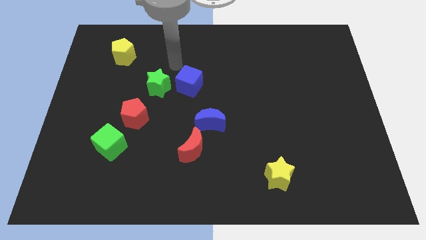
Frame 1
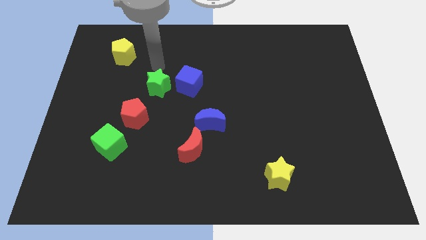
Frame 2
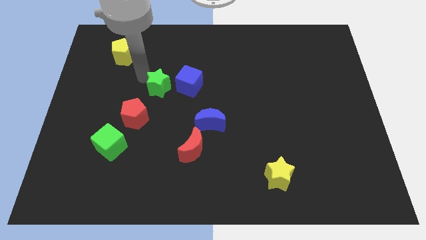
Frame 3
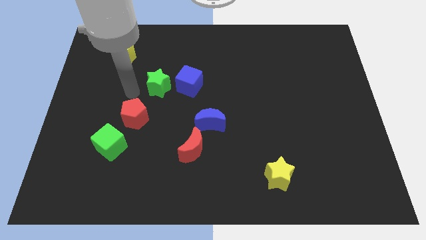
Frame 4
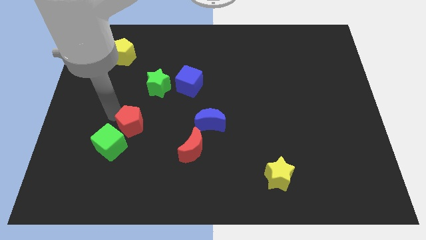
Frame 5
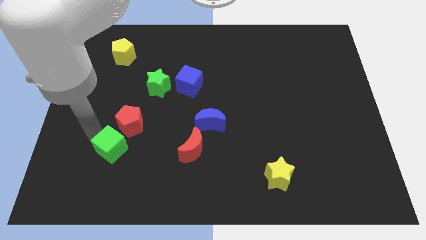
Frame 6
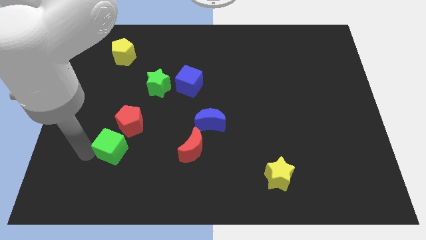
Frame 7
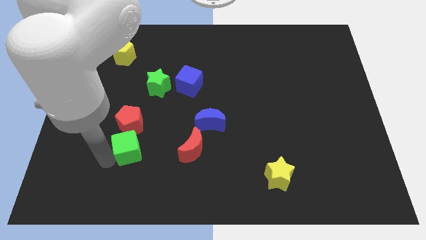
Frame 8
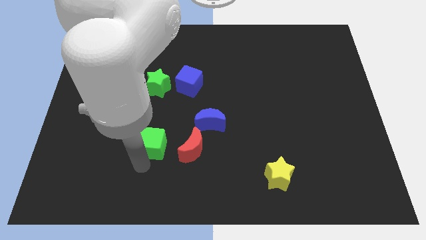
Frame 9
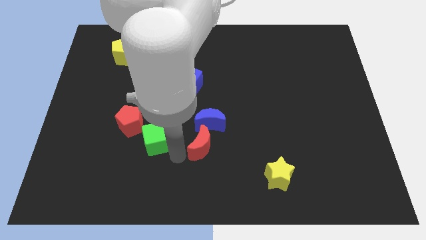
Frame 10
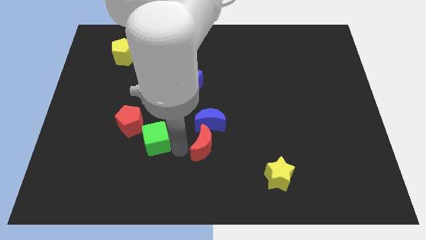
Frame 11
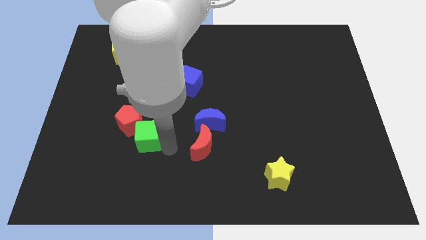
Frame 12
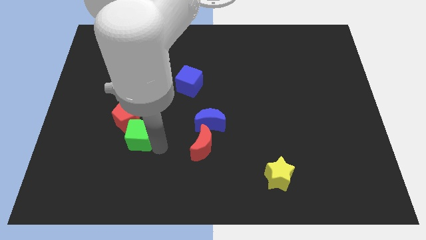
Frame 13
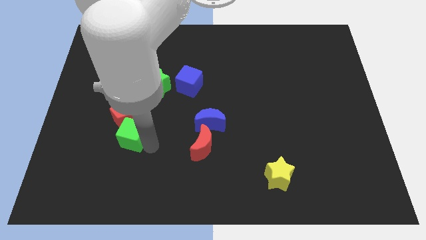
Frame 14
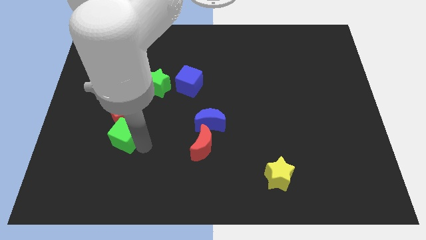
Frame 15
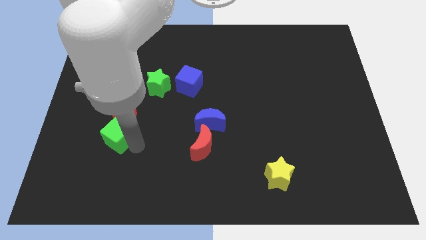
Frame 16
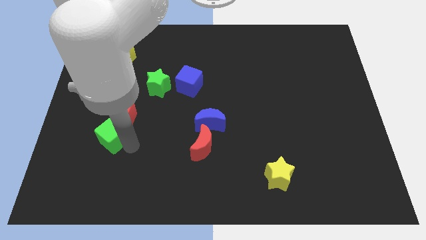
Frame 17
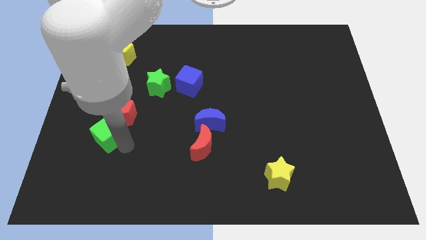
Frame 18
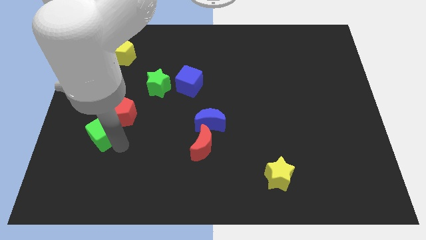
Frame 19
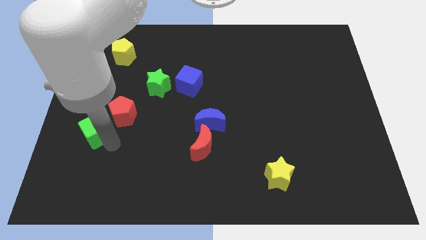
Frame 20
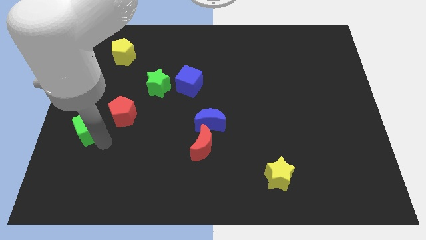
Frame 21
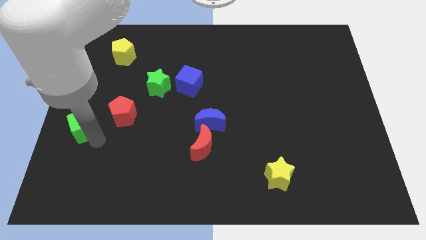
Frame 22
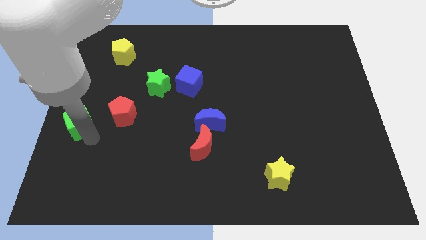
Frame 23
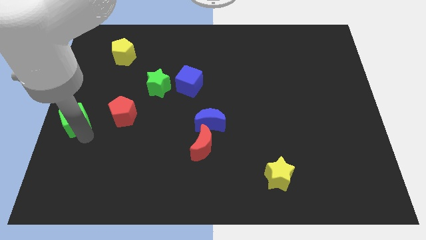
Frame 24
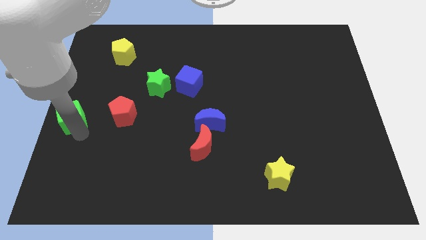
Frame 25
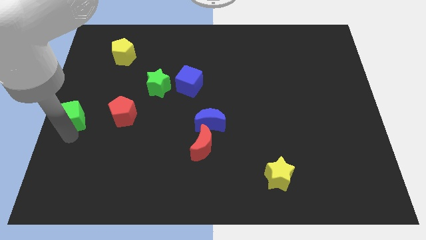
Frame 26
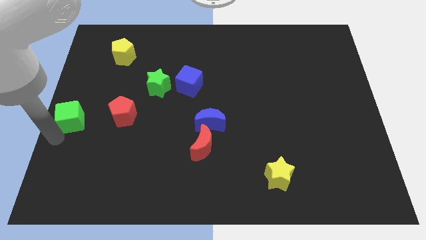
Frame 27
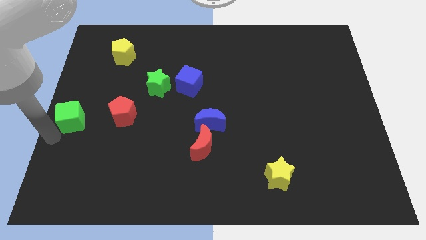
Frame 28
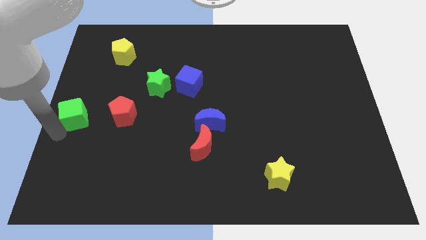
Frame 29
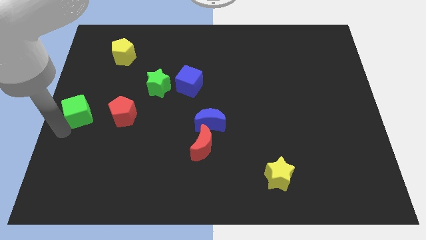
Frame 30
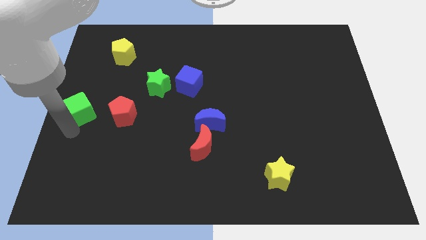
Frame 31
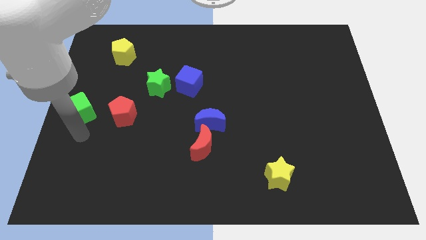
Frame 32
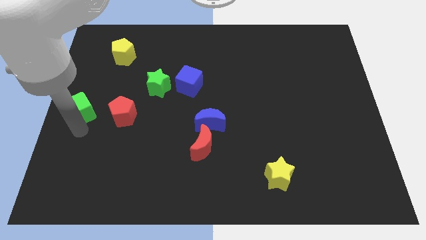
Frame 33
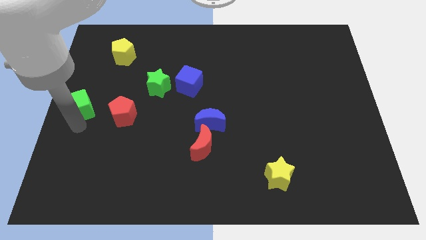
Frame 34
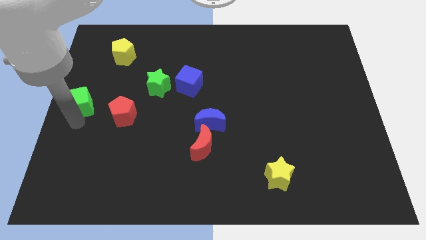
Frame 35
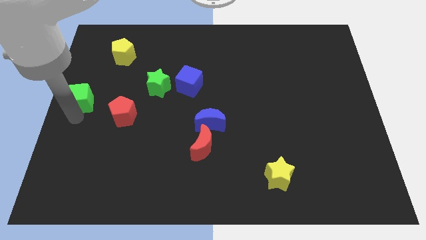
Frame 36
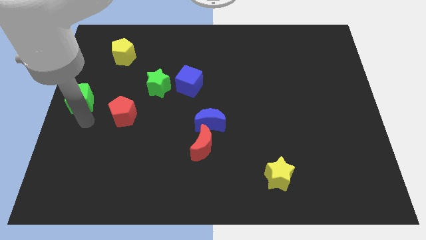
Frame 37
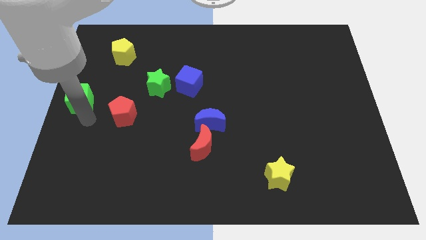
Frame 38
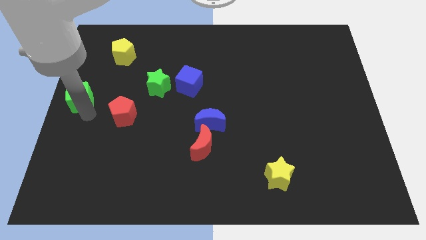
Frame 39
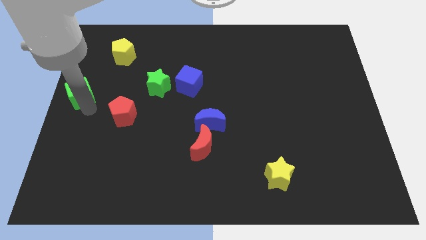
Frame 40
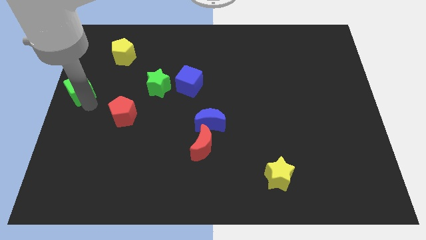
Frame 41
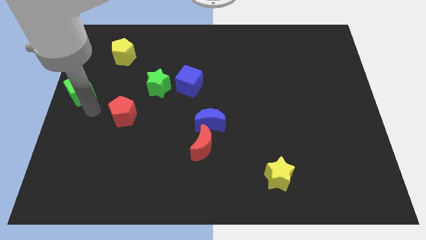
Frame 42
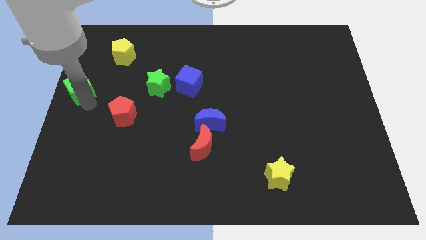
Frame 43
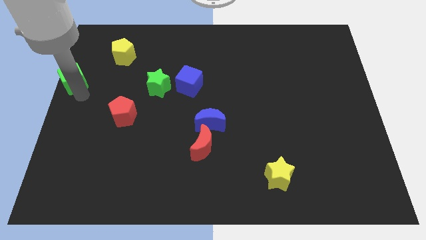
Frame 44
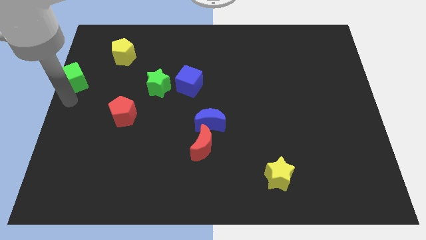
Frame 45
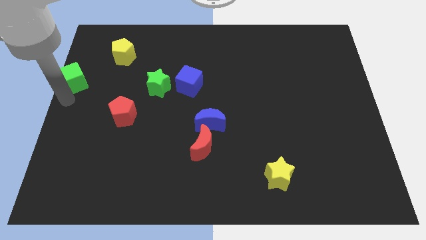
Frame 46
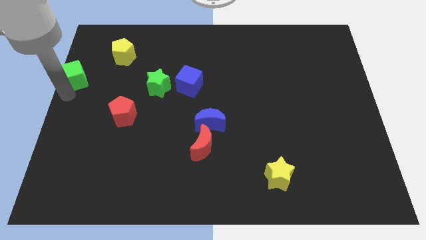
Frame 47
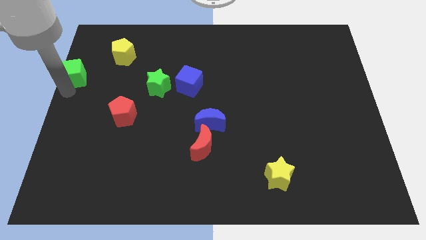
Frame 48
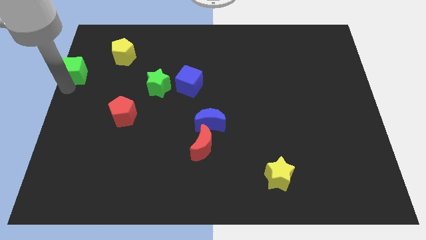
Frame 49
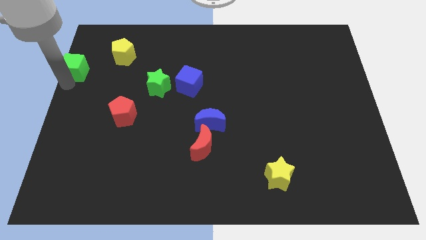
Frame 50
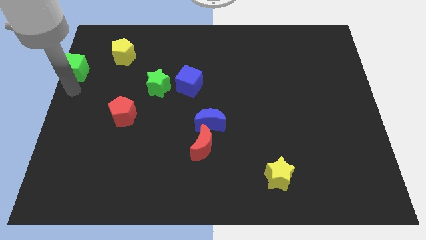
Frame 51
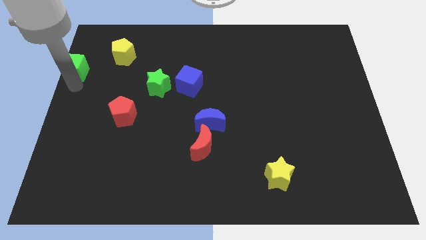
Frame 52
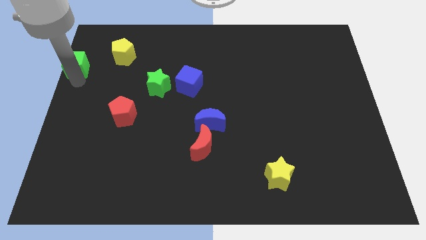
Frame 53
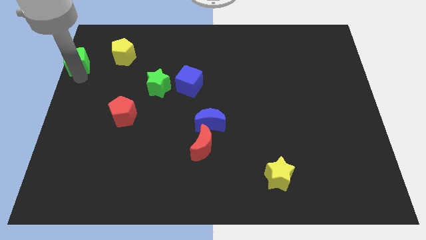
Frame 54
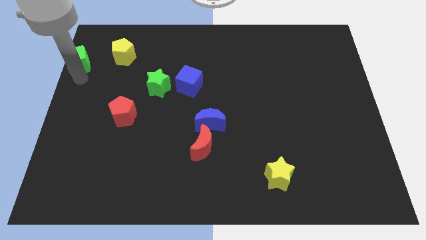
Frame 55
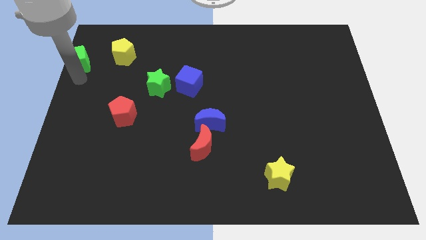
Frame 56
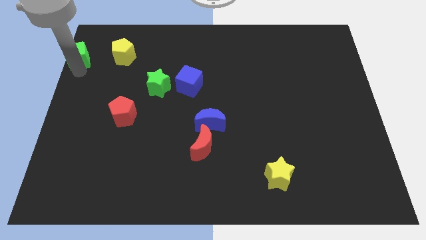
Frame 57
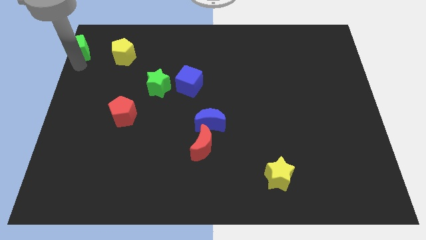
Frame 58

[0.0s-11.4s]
put the green cube to the upper left corner

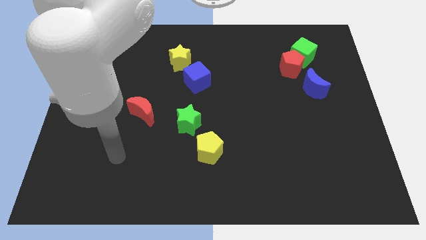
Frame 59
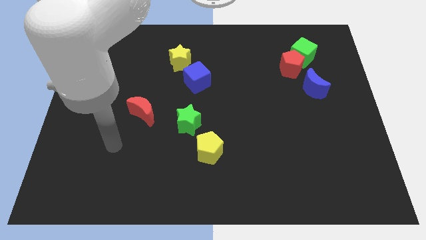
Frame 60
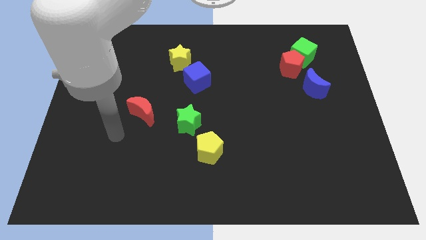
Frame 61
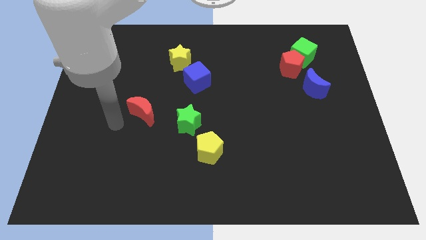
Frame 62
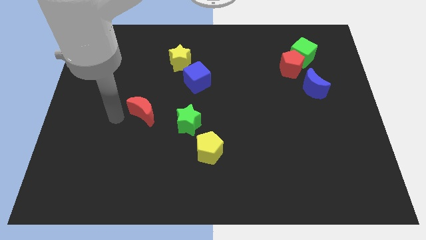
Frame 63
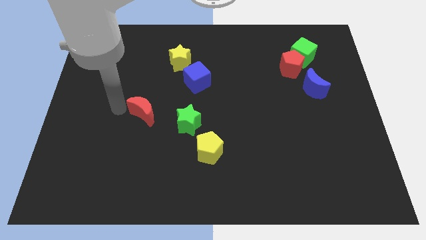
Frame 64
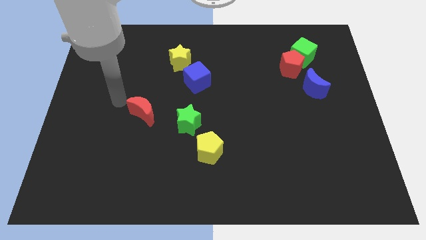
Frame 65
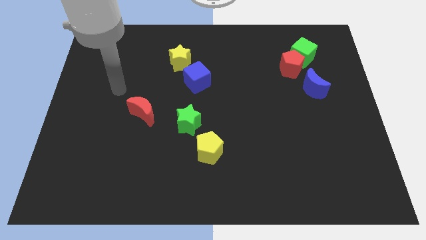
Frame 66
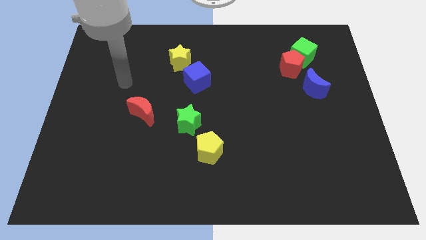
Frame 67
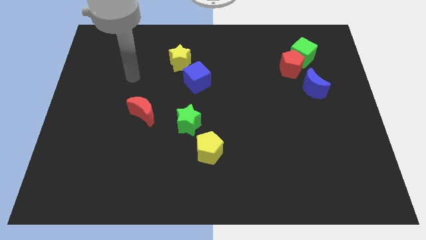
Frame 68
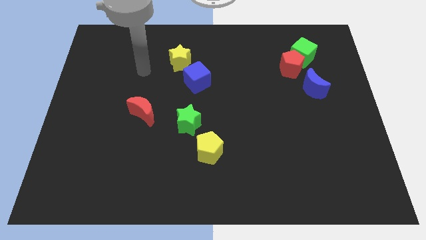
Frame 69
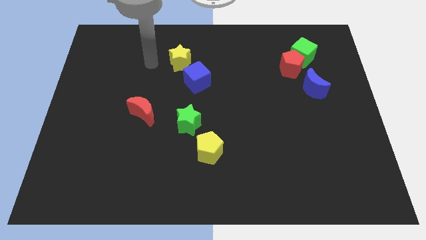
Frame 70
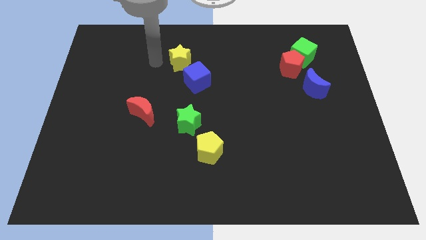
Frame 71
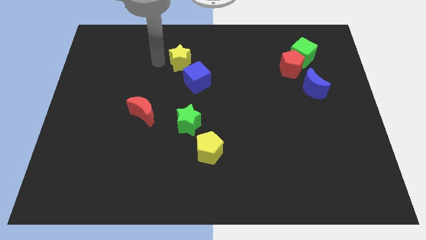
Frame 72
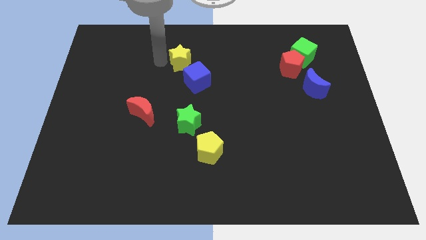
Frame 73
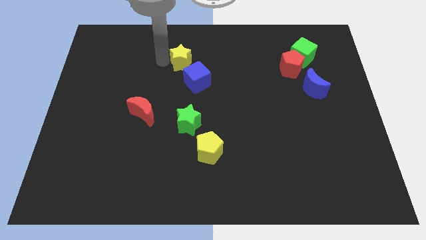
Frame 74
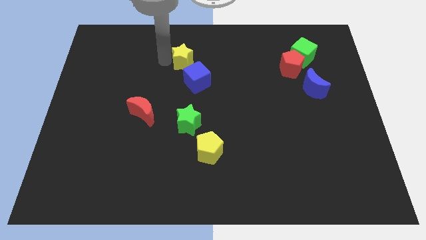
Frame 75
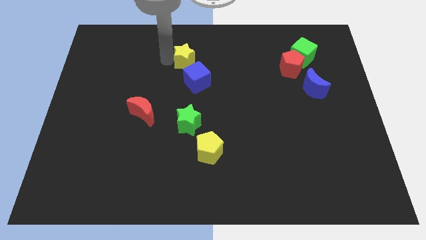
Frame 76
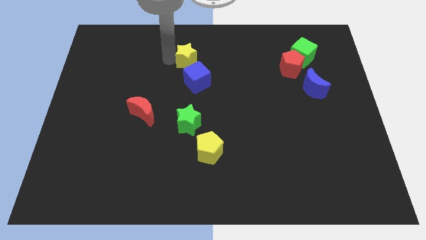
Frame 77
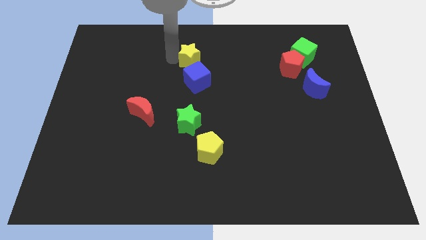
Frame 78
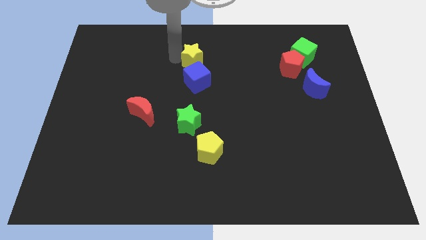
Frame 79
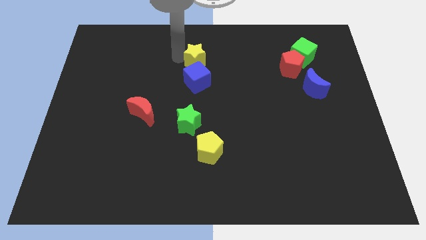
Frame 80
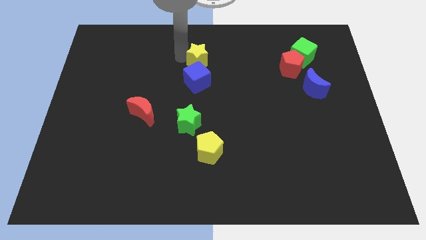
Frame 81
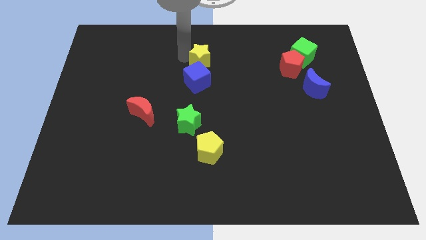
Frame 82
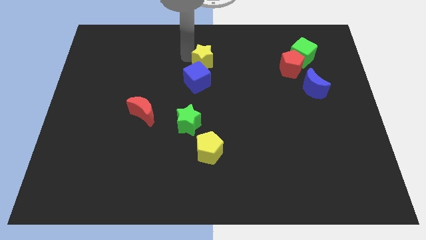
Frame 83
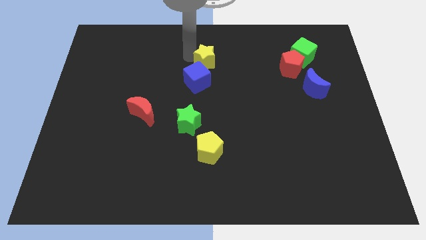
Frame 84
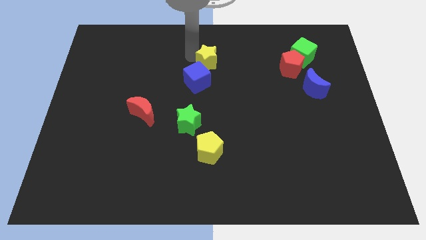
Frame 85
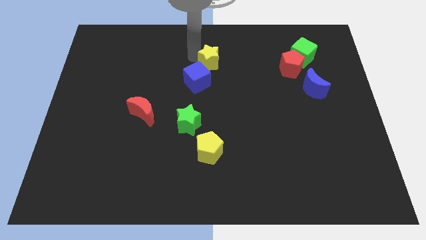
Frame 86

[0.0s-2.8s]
move the yellow star to the center of the board
